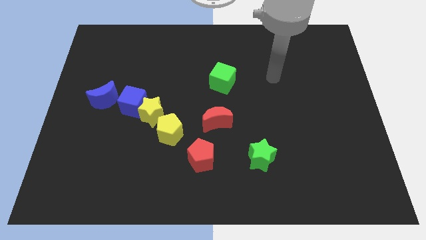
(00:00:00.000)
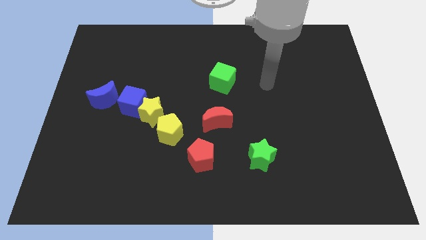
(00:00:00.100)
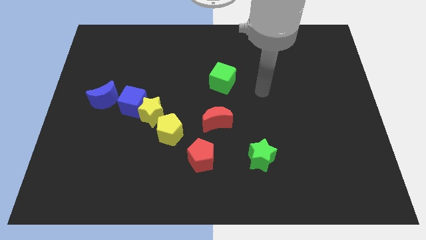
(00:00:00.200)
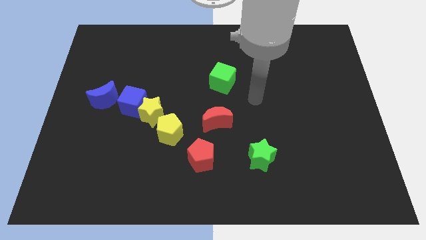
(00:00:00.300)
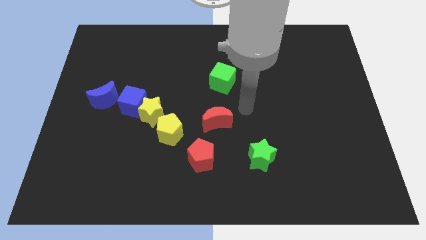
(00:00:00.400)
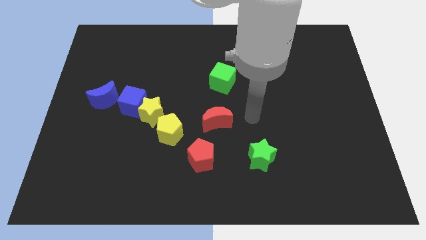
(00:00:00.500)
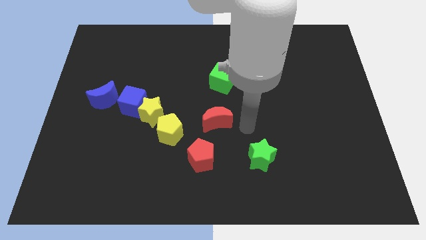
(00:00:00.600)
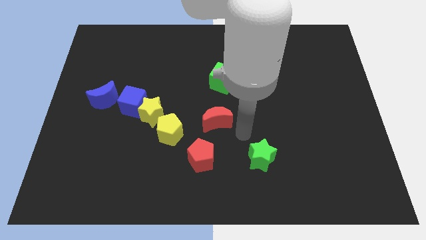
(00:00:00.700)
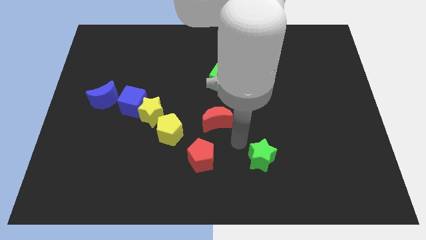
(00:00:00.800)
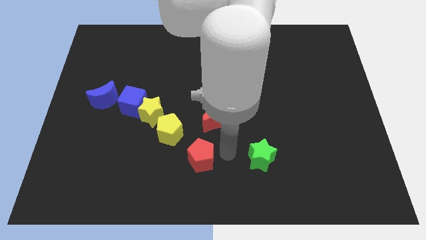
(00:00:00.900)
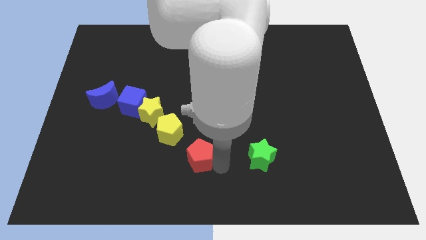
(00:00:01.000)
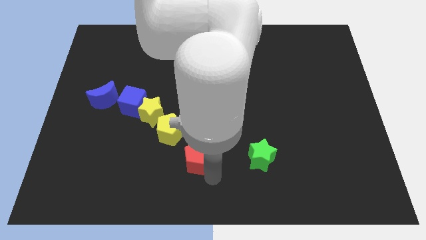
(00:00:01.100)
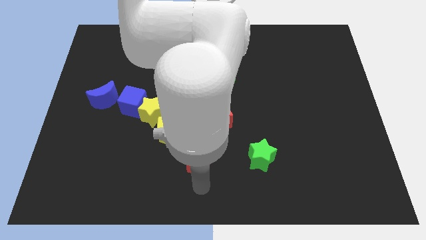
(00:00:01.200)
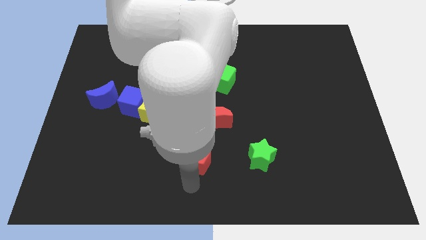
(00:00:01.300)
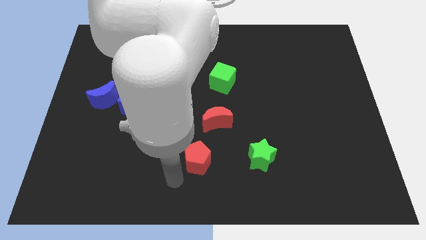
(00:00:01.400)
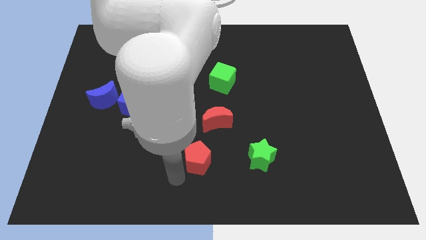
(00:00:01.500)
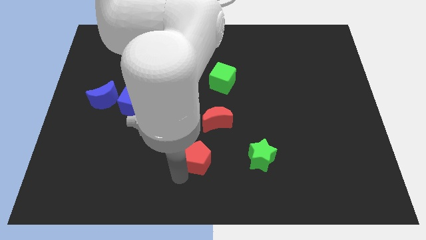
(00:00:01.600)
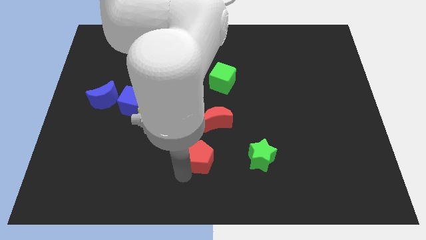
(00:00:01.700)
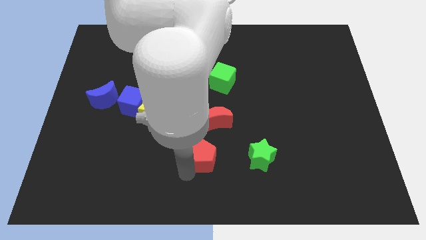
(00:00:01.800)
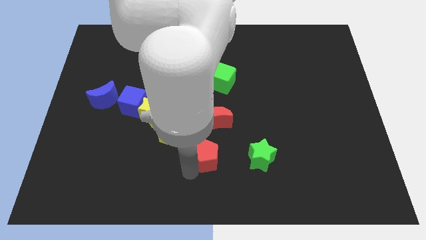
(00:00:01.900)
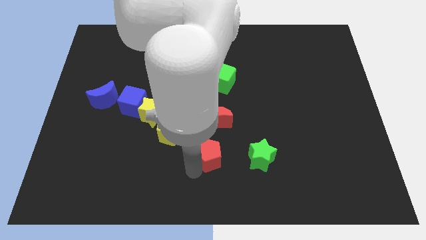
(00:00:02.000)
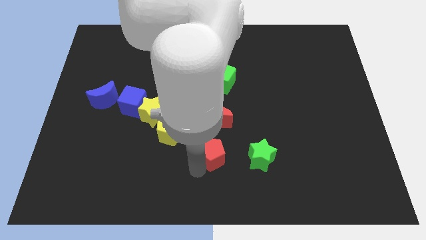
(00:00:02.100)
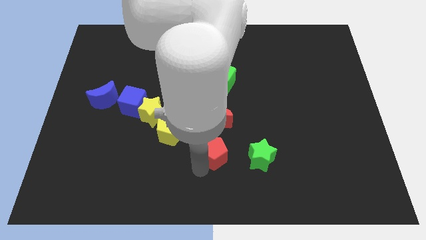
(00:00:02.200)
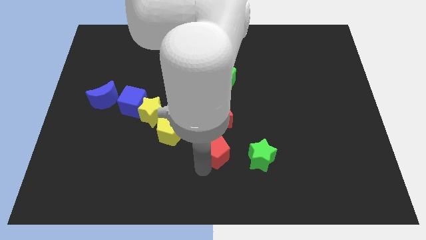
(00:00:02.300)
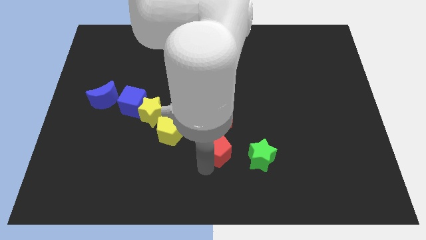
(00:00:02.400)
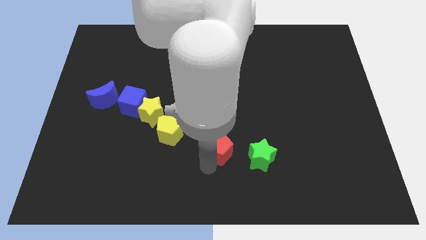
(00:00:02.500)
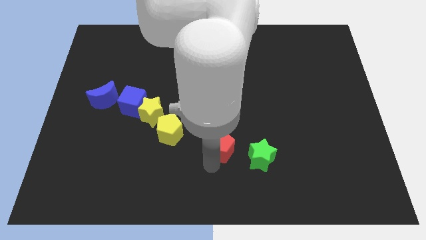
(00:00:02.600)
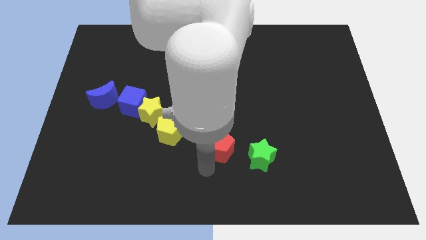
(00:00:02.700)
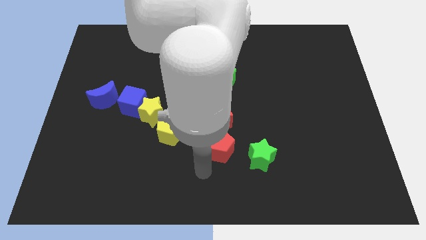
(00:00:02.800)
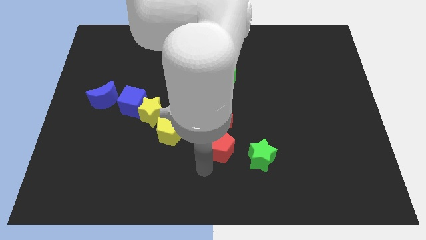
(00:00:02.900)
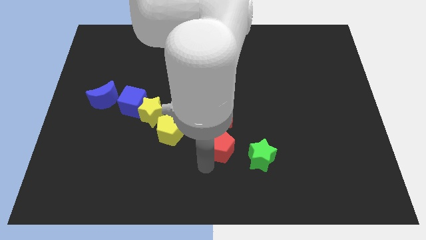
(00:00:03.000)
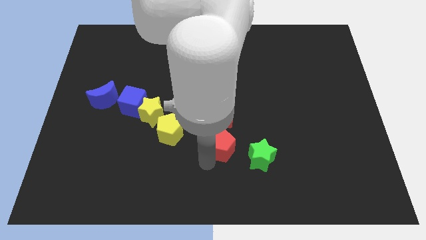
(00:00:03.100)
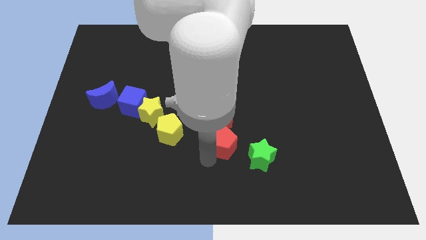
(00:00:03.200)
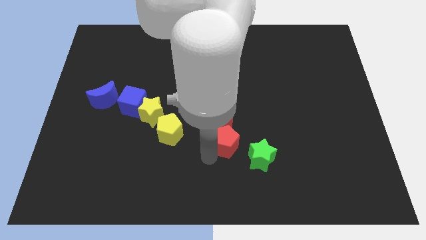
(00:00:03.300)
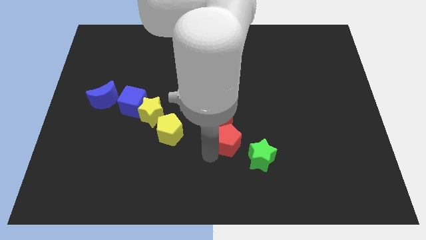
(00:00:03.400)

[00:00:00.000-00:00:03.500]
slightly push the red pentagon up and to the right diagonally

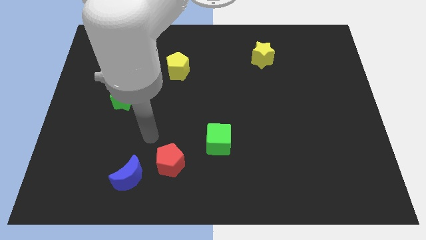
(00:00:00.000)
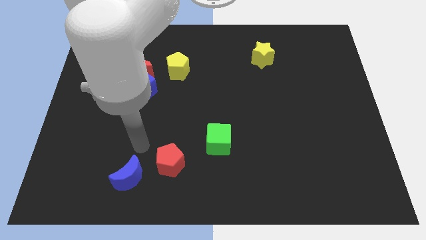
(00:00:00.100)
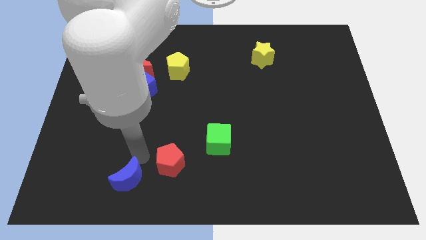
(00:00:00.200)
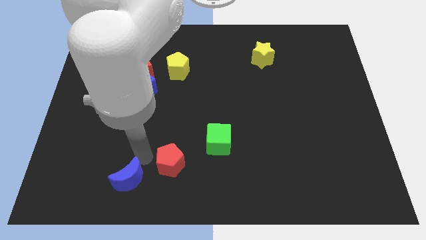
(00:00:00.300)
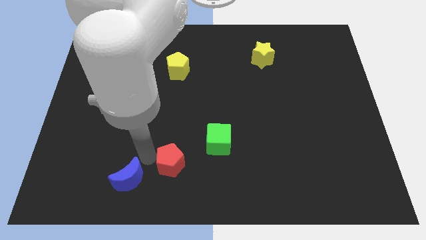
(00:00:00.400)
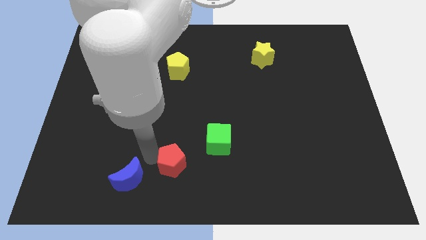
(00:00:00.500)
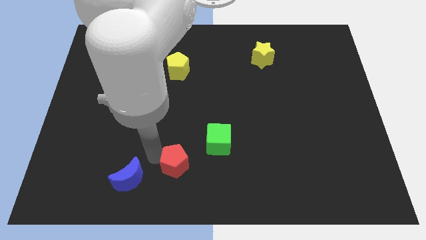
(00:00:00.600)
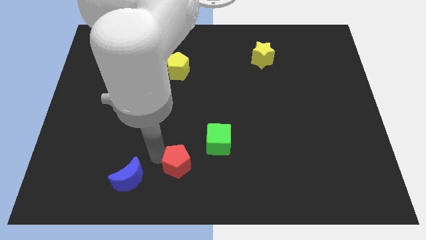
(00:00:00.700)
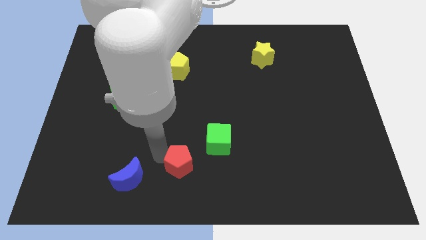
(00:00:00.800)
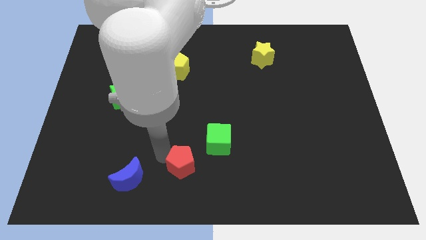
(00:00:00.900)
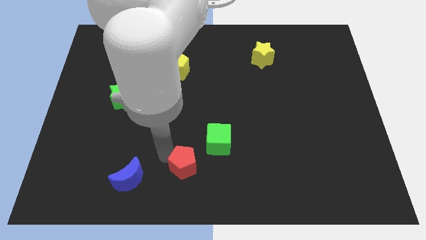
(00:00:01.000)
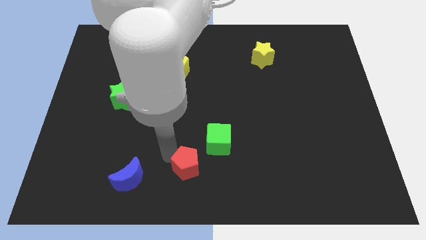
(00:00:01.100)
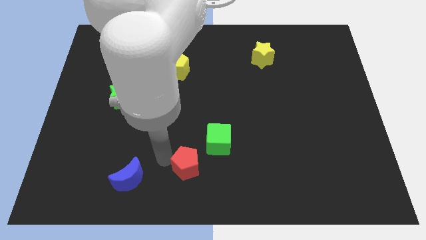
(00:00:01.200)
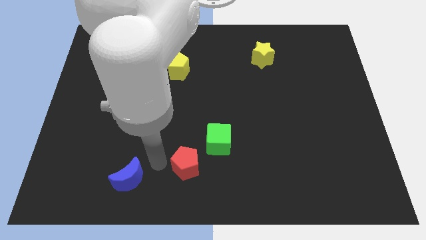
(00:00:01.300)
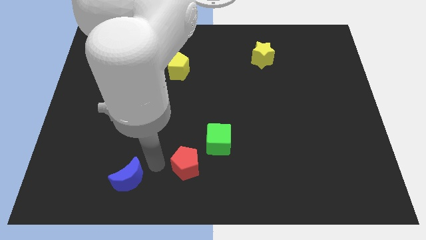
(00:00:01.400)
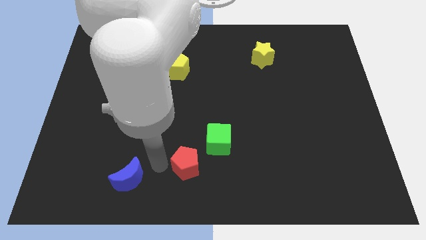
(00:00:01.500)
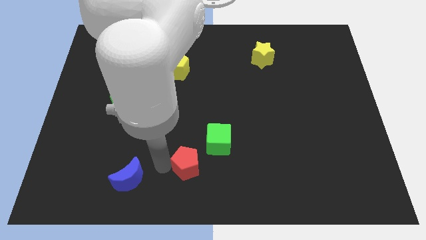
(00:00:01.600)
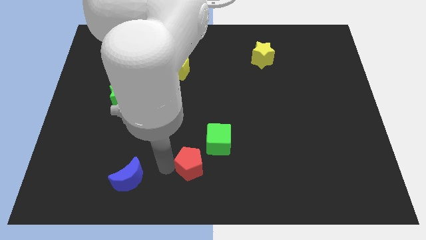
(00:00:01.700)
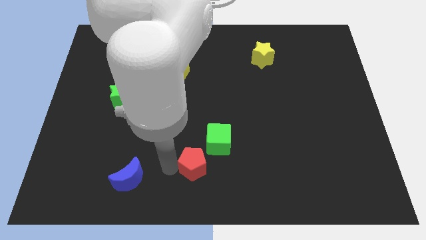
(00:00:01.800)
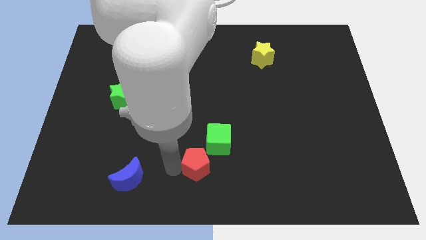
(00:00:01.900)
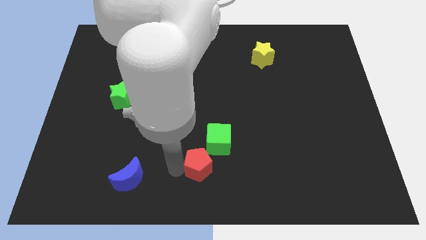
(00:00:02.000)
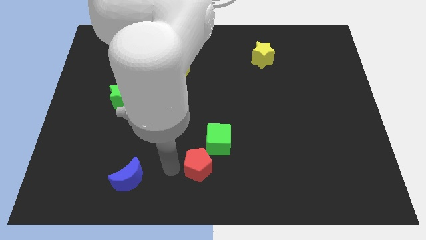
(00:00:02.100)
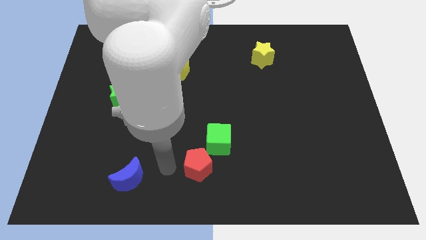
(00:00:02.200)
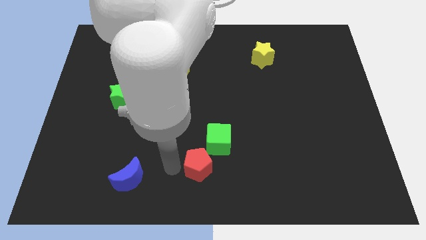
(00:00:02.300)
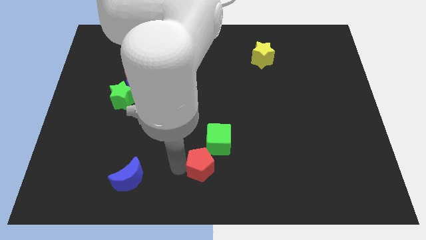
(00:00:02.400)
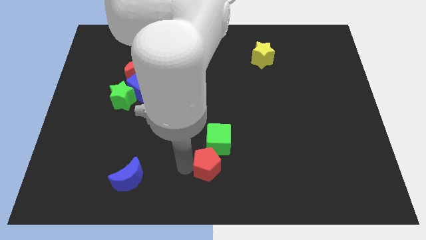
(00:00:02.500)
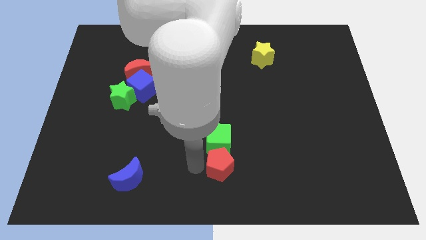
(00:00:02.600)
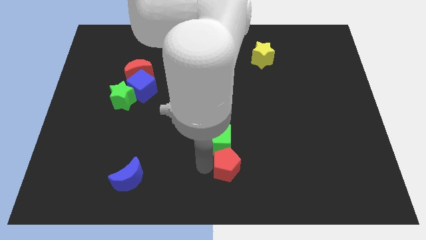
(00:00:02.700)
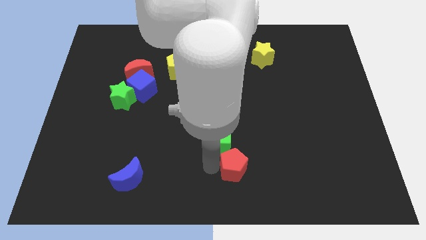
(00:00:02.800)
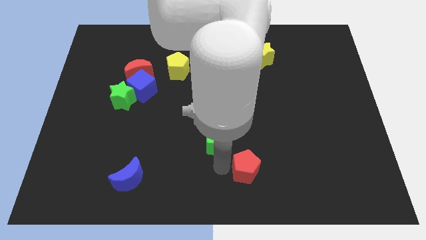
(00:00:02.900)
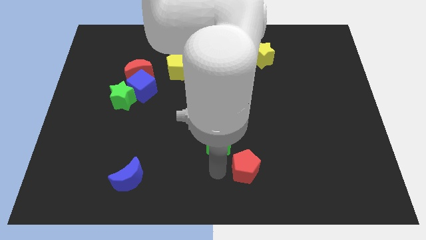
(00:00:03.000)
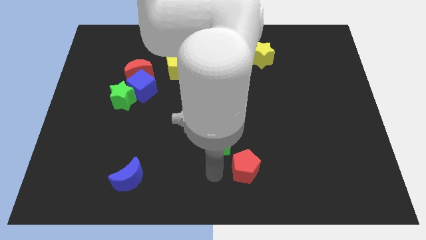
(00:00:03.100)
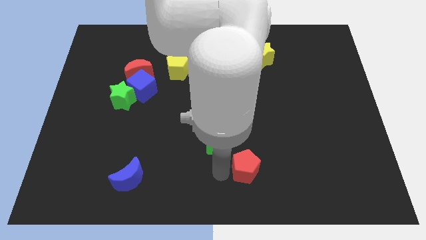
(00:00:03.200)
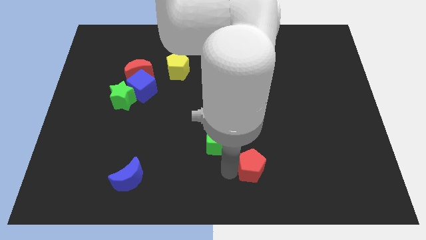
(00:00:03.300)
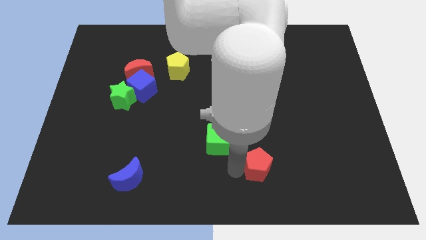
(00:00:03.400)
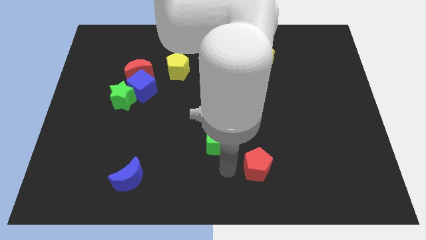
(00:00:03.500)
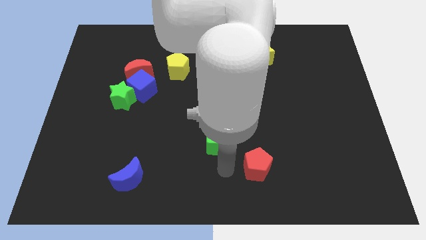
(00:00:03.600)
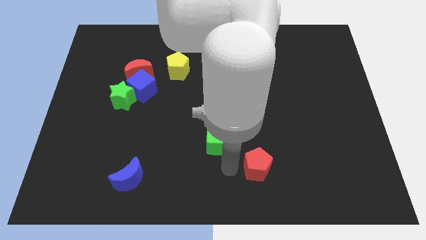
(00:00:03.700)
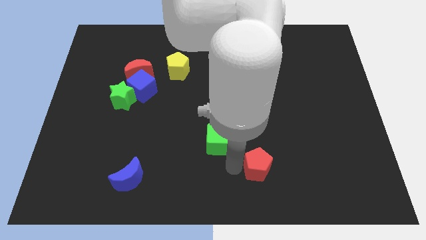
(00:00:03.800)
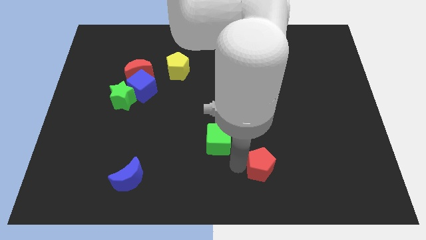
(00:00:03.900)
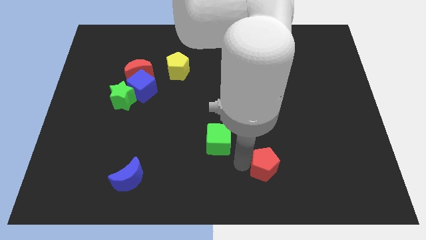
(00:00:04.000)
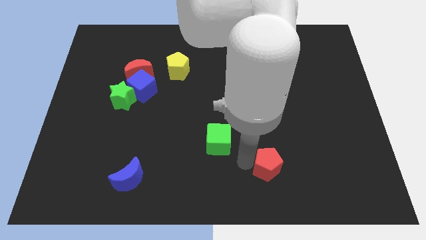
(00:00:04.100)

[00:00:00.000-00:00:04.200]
slide the red pentagon to the right

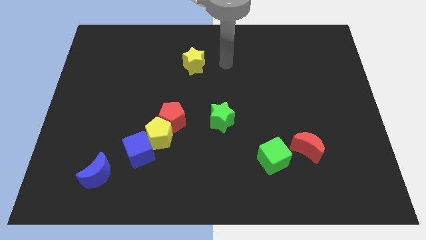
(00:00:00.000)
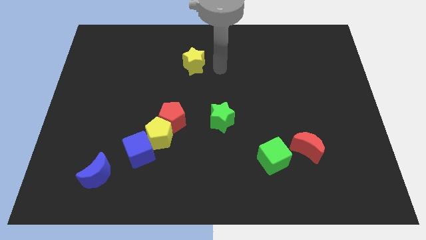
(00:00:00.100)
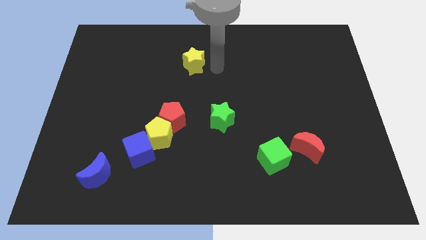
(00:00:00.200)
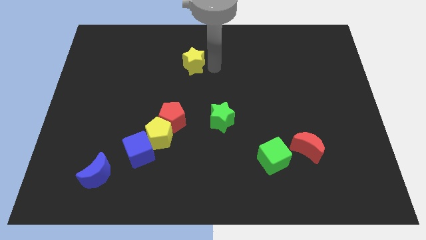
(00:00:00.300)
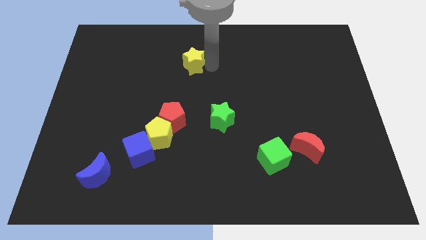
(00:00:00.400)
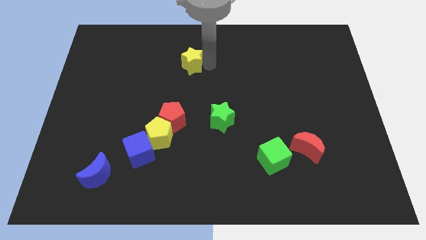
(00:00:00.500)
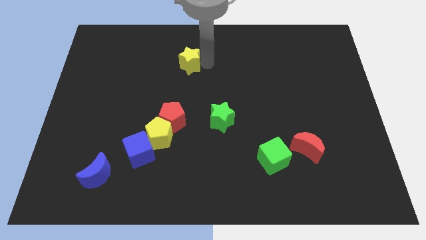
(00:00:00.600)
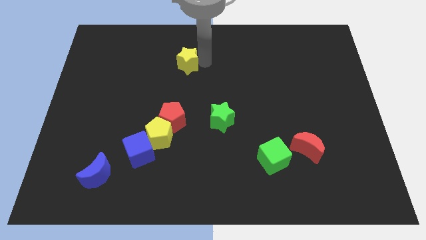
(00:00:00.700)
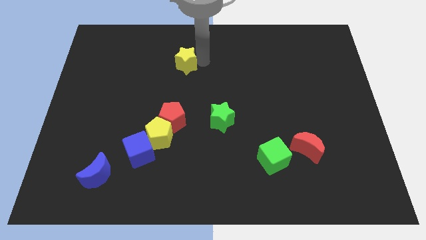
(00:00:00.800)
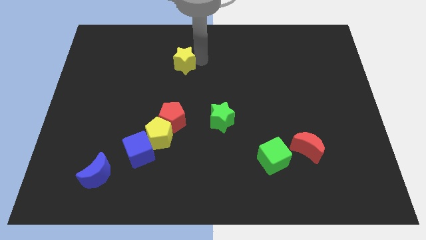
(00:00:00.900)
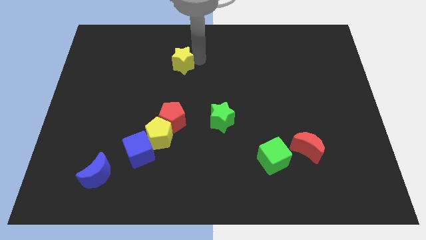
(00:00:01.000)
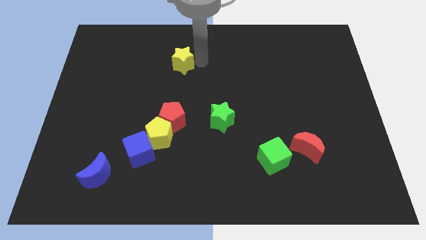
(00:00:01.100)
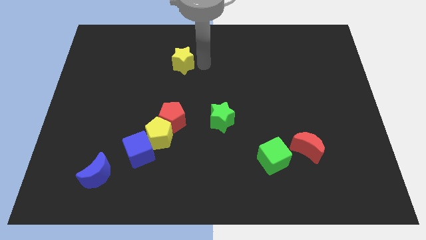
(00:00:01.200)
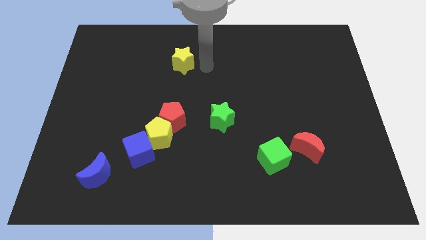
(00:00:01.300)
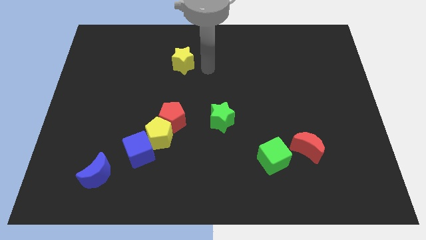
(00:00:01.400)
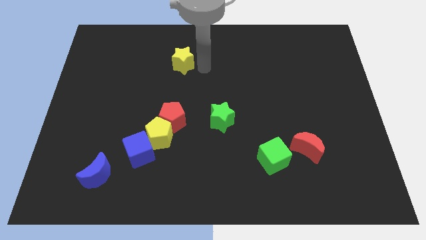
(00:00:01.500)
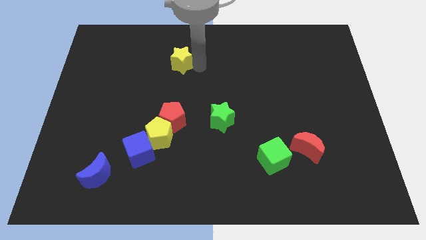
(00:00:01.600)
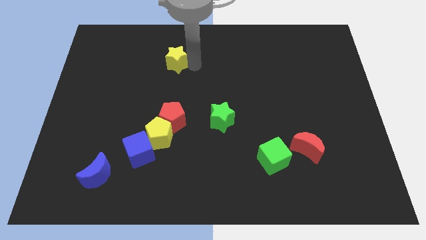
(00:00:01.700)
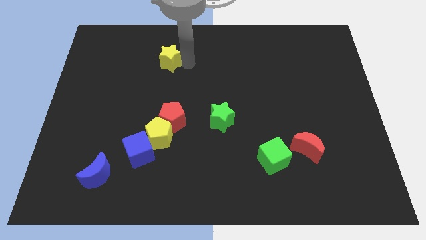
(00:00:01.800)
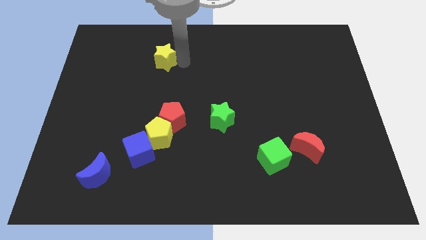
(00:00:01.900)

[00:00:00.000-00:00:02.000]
push the yellow star a bit to the left
